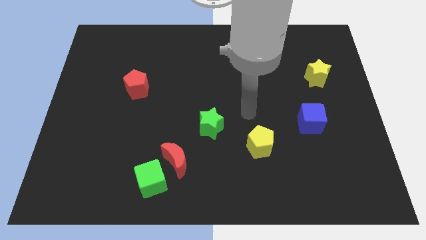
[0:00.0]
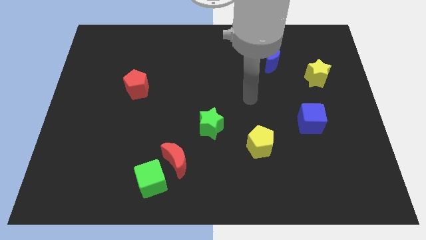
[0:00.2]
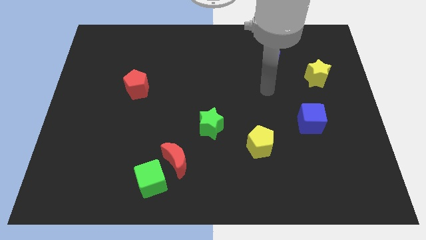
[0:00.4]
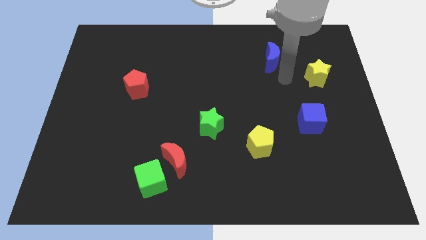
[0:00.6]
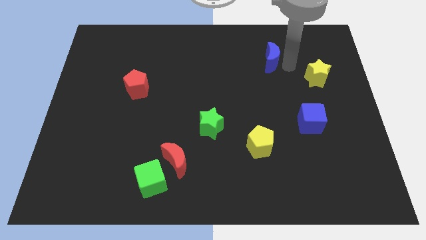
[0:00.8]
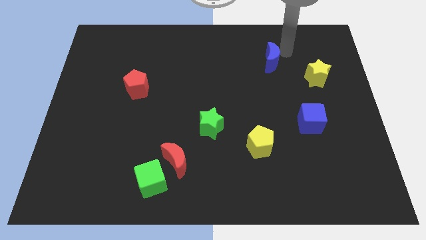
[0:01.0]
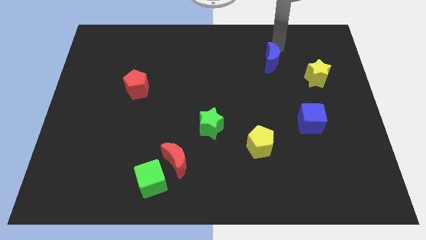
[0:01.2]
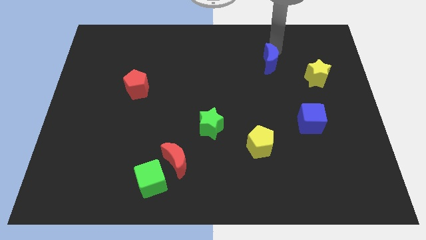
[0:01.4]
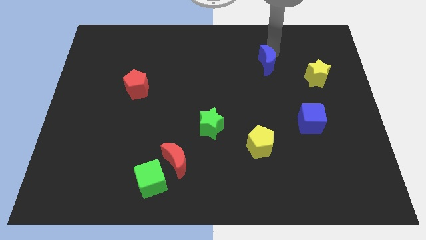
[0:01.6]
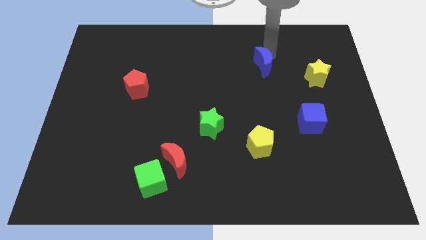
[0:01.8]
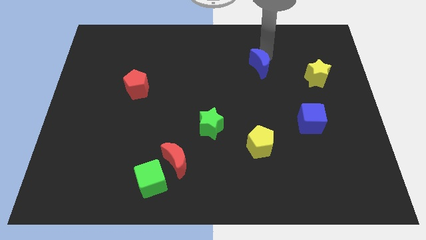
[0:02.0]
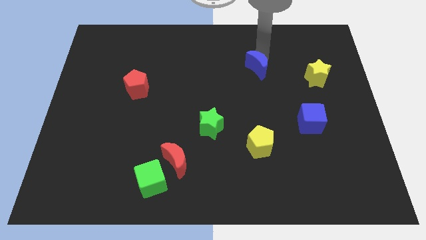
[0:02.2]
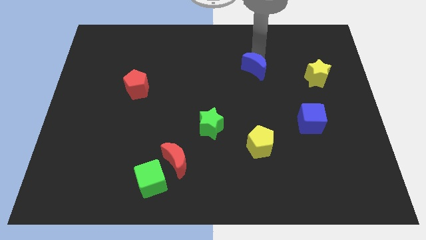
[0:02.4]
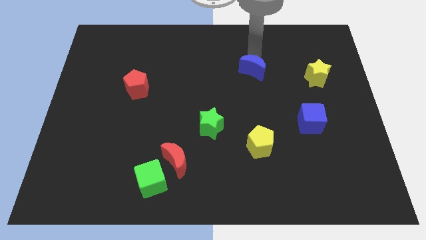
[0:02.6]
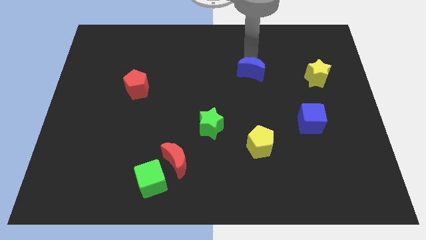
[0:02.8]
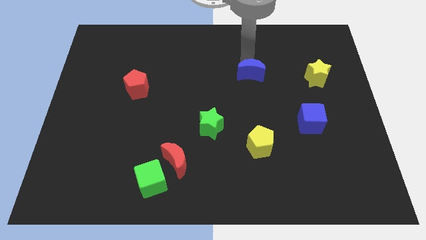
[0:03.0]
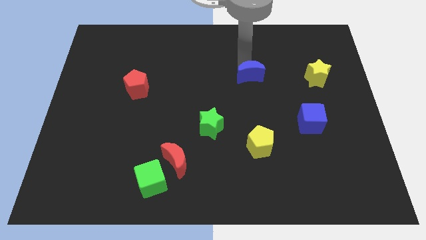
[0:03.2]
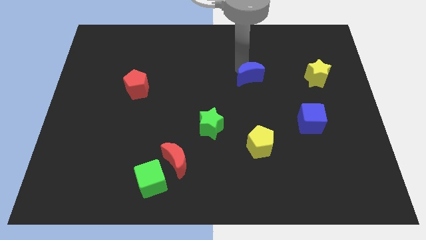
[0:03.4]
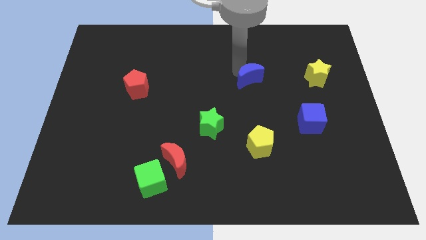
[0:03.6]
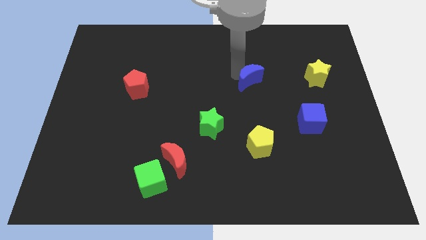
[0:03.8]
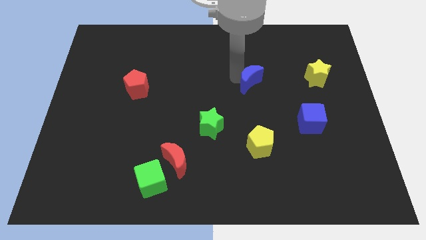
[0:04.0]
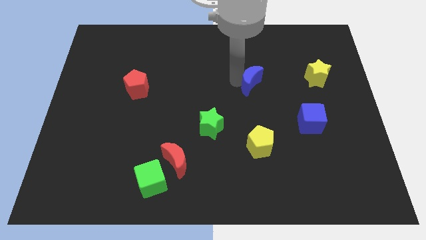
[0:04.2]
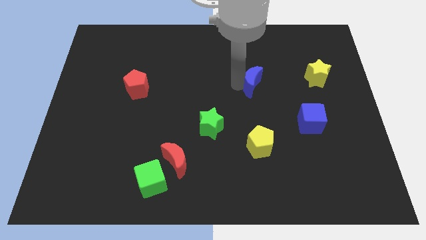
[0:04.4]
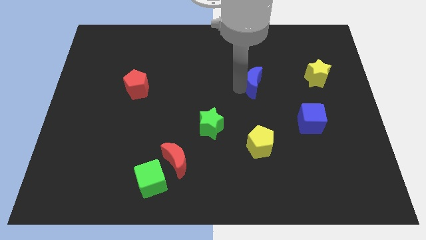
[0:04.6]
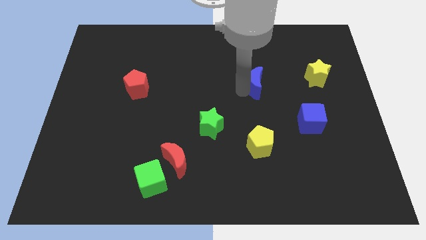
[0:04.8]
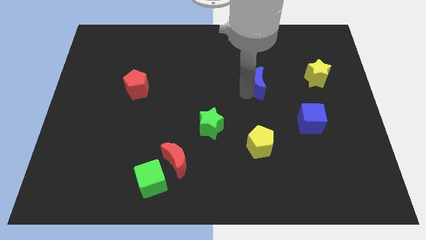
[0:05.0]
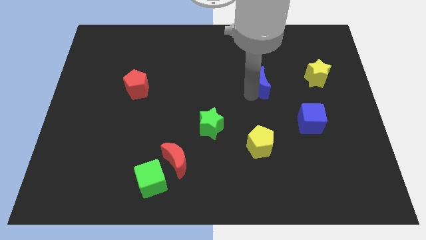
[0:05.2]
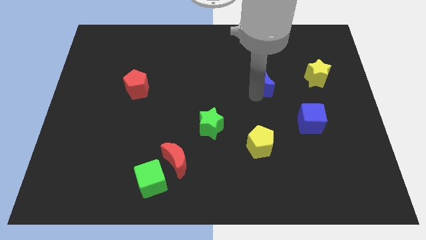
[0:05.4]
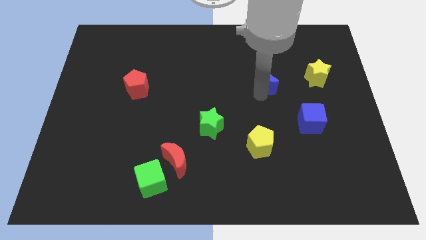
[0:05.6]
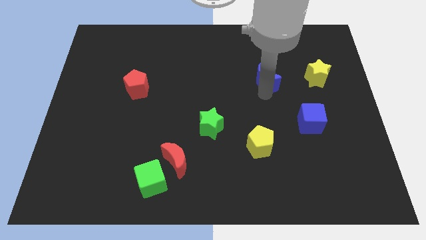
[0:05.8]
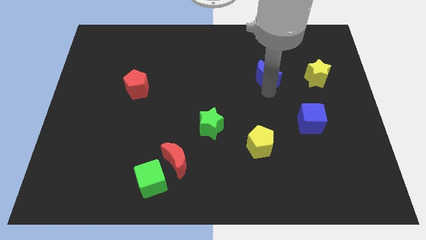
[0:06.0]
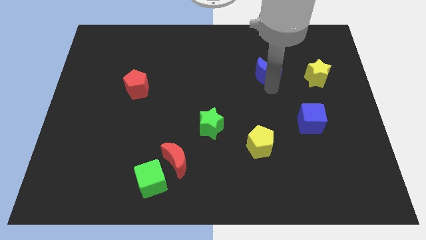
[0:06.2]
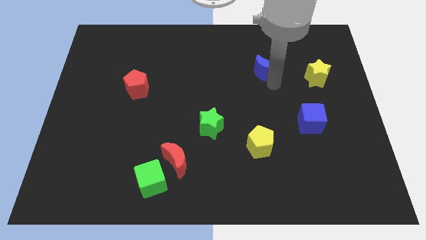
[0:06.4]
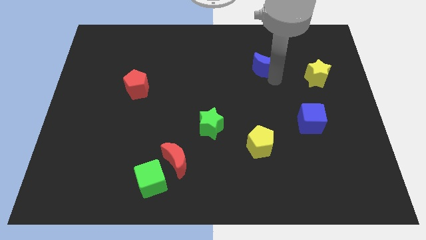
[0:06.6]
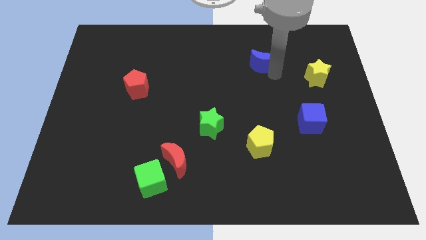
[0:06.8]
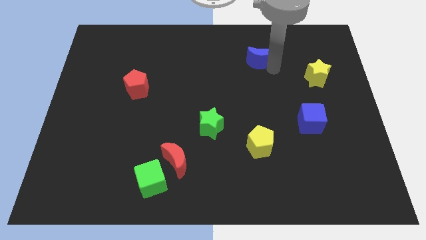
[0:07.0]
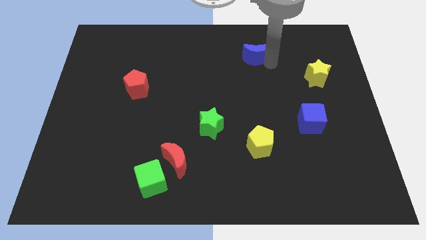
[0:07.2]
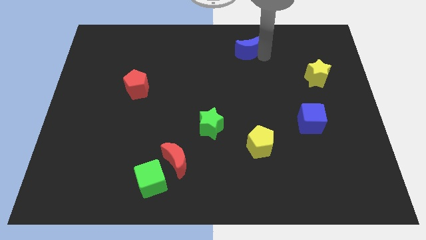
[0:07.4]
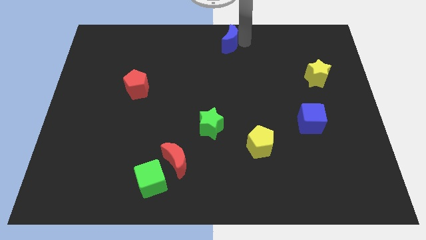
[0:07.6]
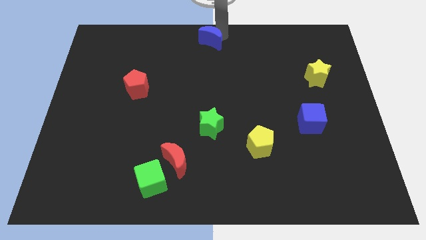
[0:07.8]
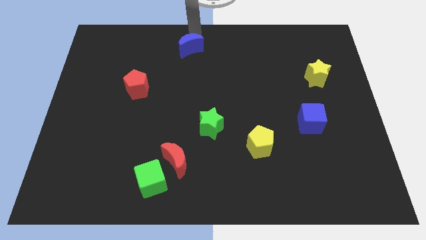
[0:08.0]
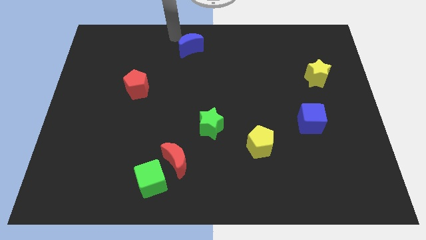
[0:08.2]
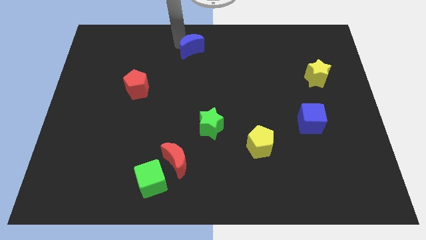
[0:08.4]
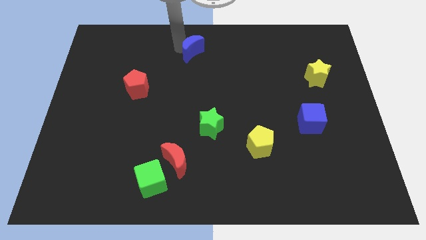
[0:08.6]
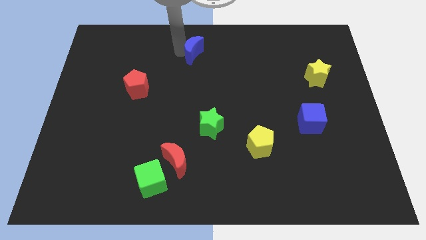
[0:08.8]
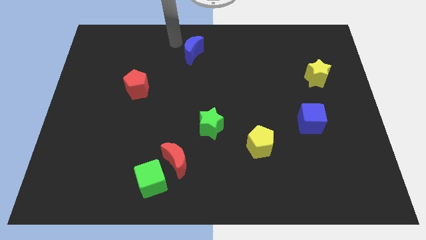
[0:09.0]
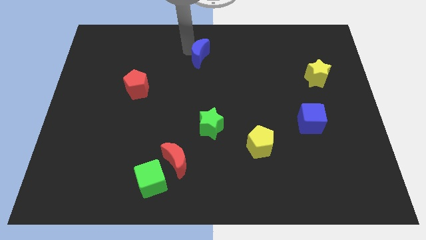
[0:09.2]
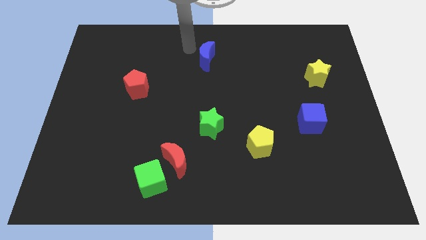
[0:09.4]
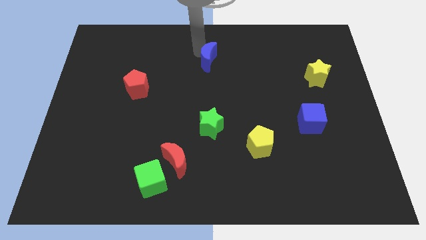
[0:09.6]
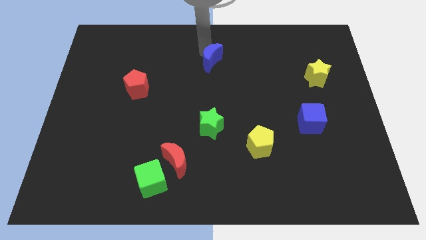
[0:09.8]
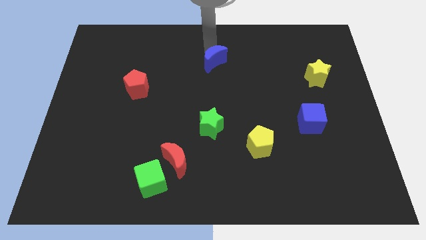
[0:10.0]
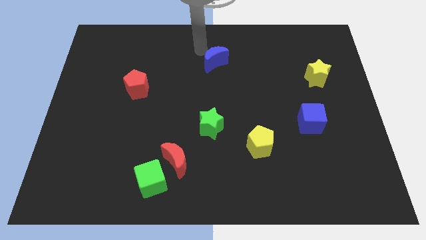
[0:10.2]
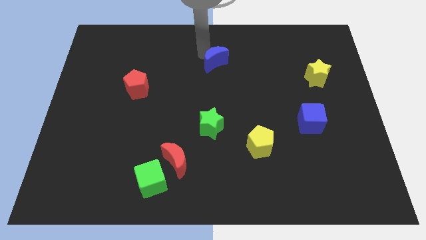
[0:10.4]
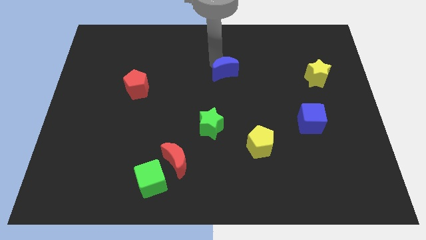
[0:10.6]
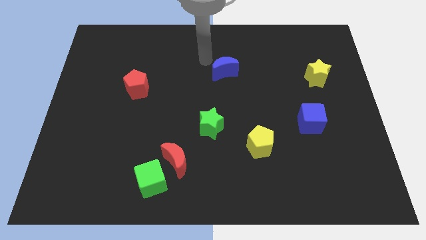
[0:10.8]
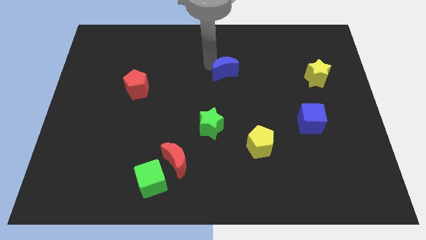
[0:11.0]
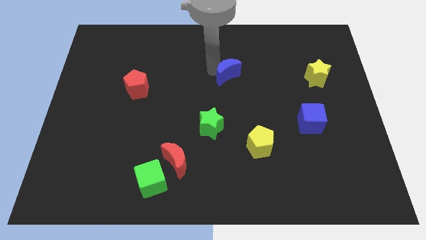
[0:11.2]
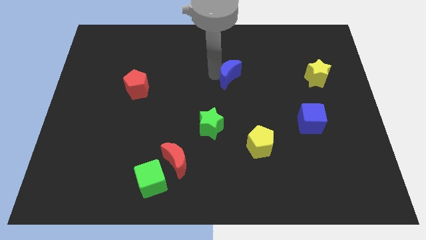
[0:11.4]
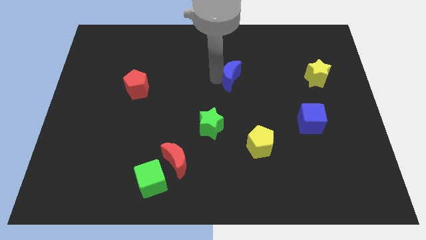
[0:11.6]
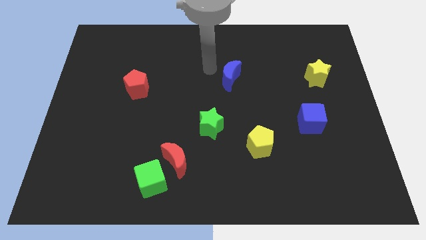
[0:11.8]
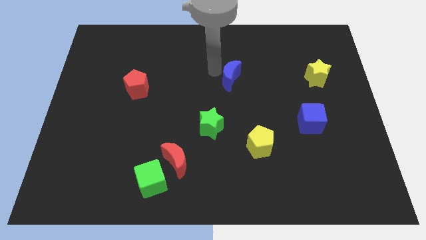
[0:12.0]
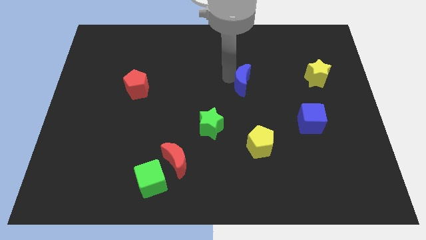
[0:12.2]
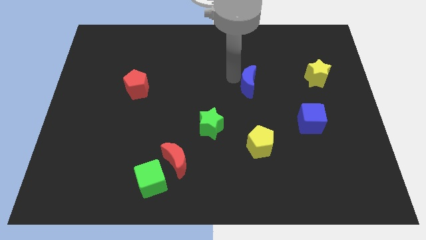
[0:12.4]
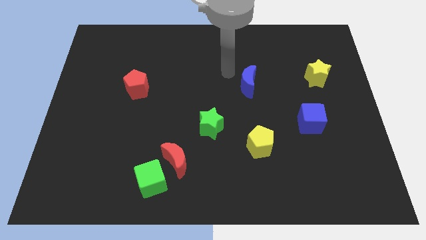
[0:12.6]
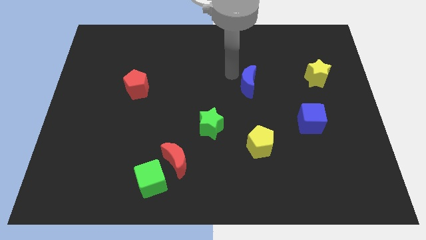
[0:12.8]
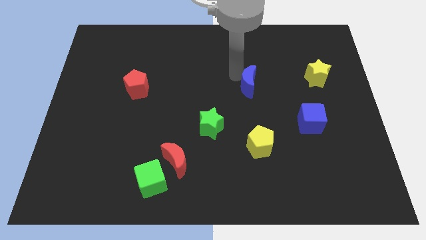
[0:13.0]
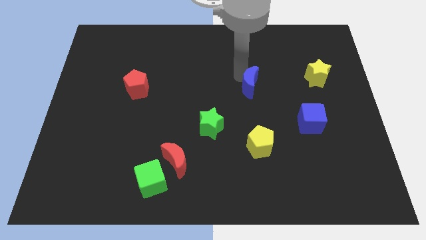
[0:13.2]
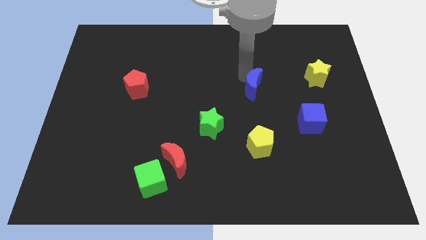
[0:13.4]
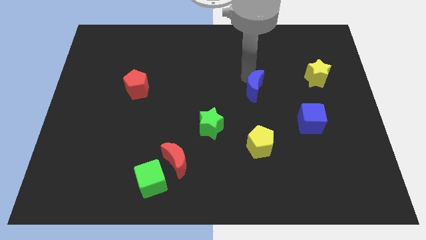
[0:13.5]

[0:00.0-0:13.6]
slide the blue moon to the top of the yellow pentagon

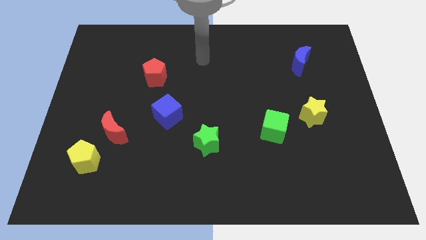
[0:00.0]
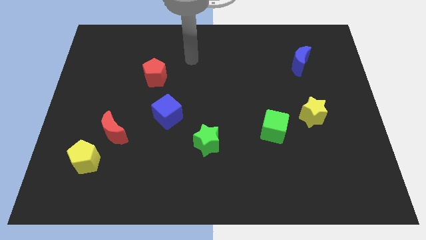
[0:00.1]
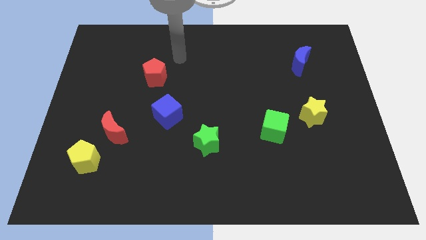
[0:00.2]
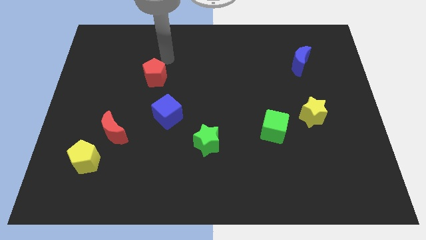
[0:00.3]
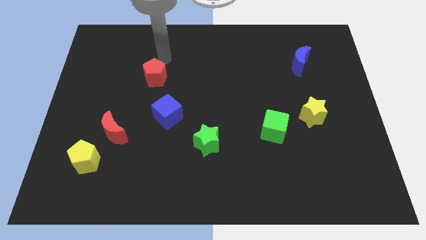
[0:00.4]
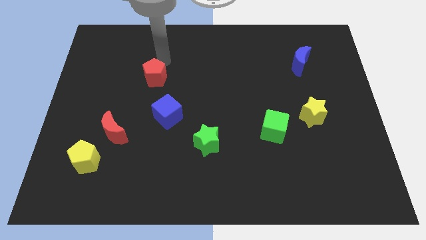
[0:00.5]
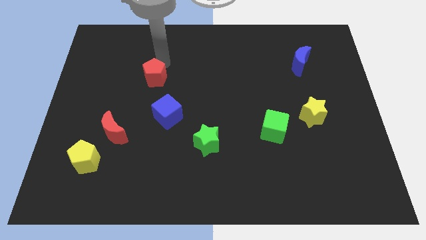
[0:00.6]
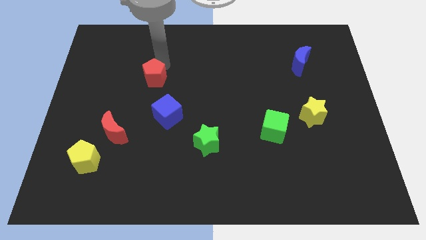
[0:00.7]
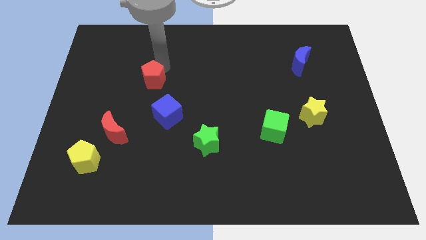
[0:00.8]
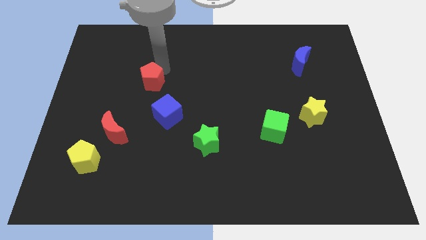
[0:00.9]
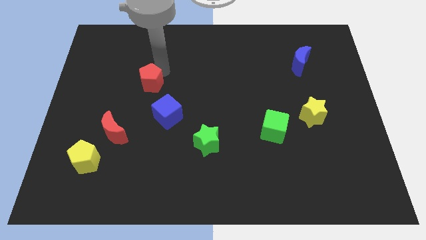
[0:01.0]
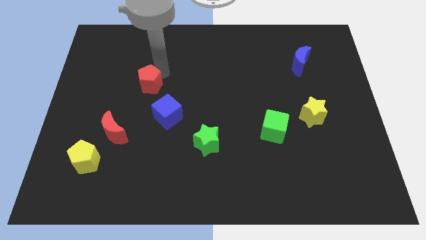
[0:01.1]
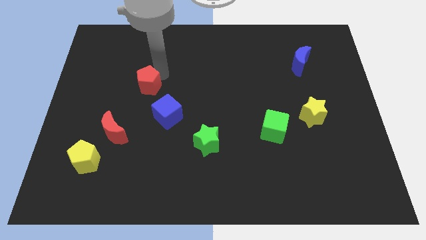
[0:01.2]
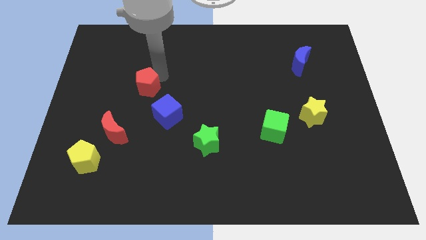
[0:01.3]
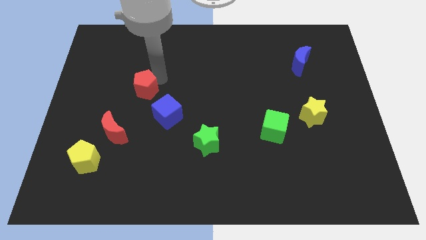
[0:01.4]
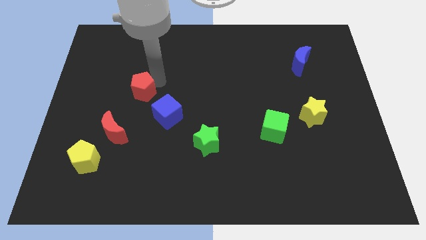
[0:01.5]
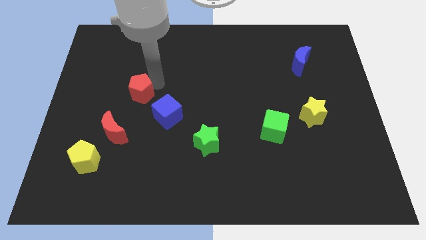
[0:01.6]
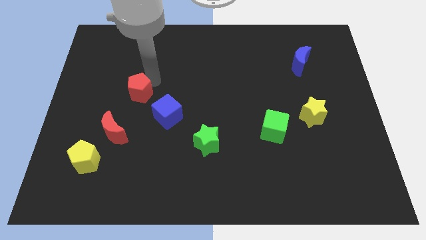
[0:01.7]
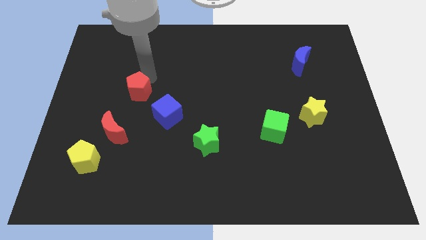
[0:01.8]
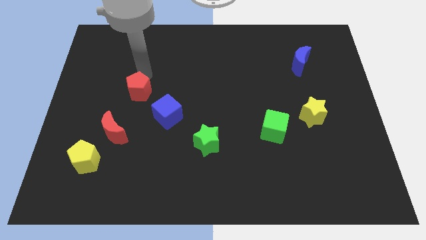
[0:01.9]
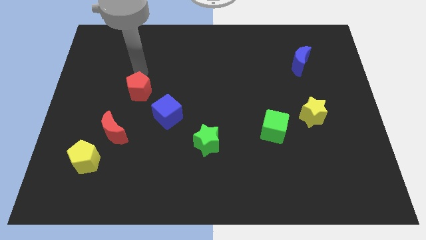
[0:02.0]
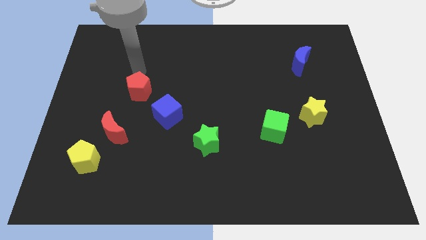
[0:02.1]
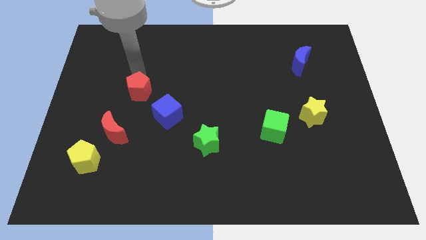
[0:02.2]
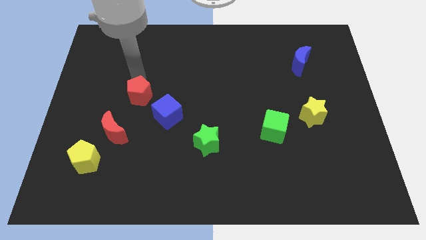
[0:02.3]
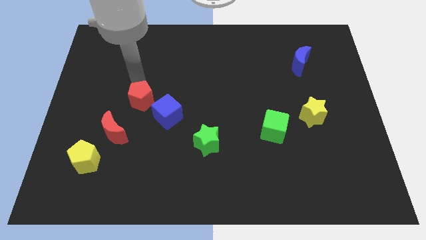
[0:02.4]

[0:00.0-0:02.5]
move the red pentagon to the top right of the red moon
